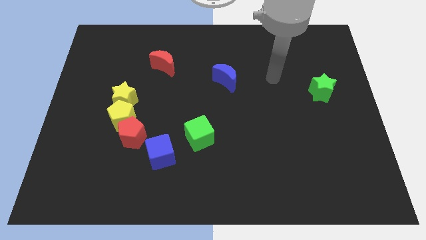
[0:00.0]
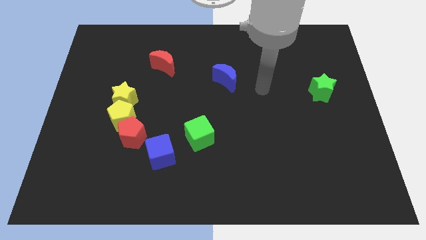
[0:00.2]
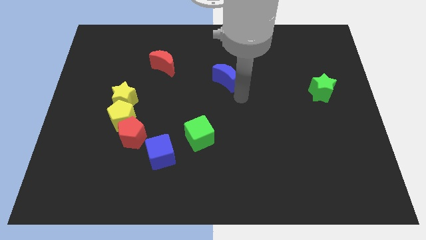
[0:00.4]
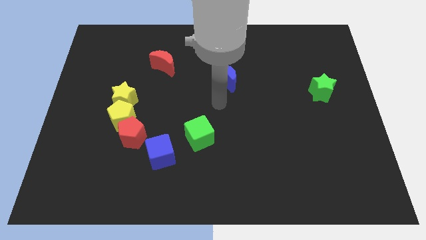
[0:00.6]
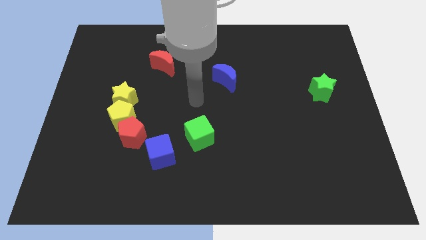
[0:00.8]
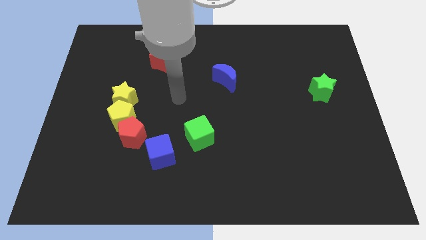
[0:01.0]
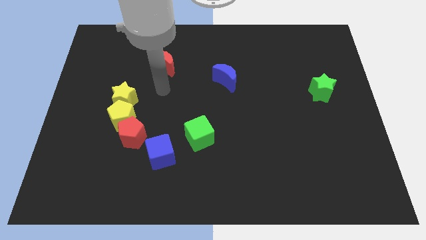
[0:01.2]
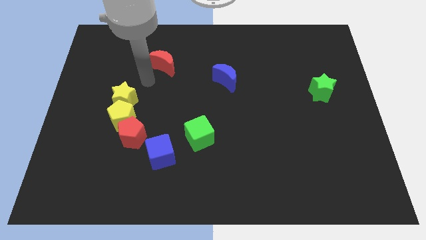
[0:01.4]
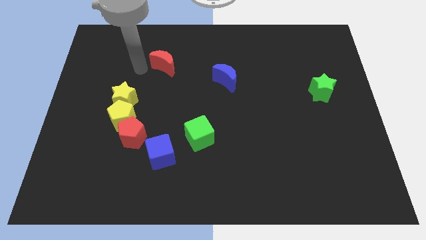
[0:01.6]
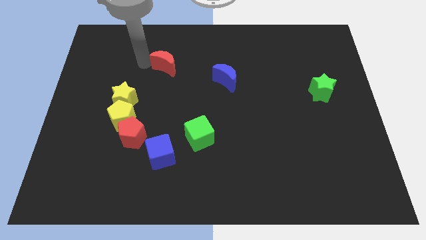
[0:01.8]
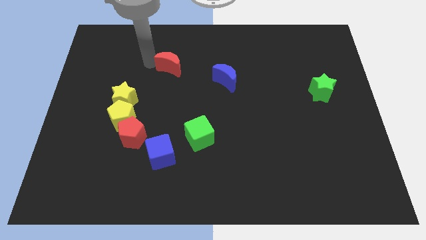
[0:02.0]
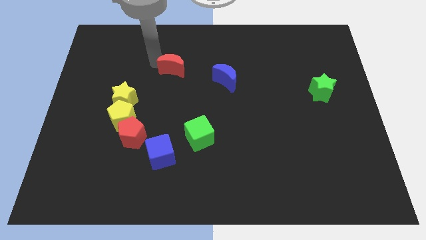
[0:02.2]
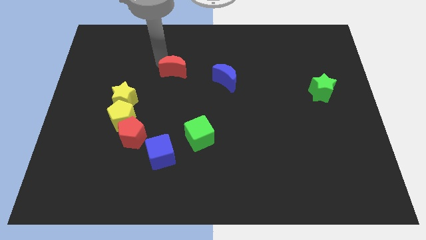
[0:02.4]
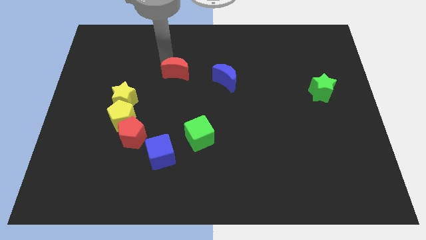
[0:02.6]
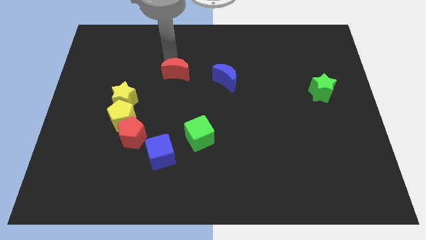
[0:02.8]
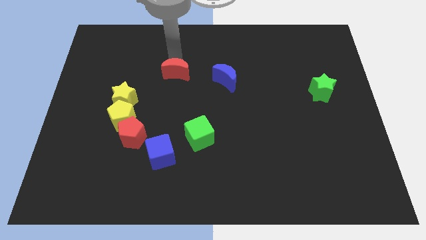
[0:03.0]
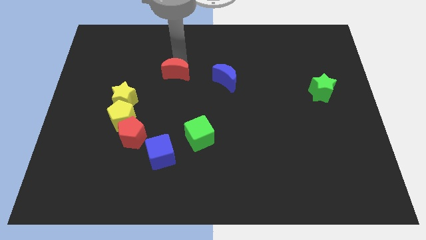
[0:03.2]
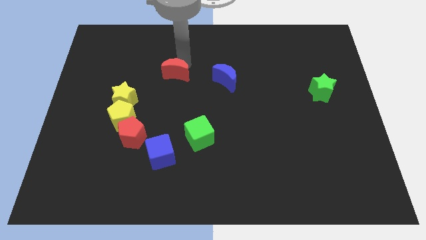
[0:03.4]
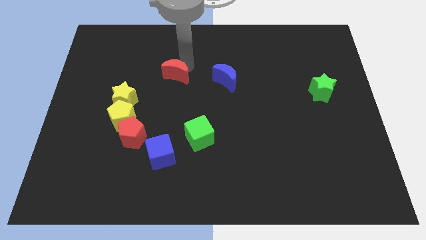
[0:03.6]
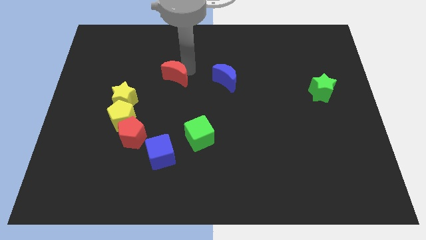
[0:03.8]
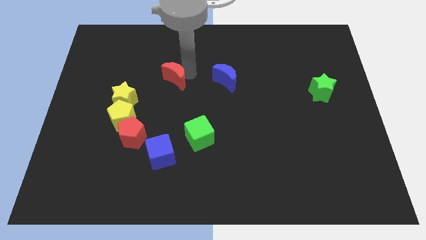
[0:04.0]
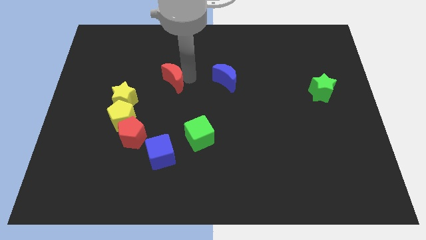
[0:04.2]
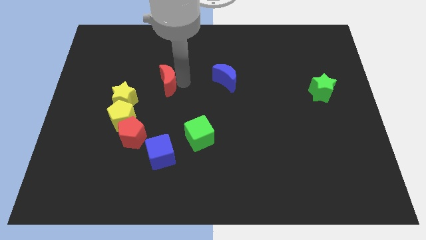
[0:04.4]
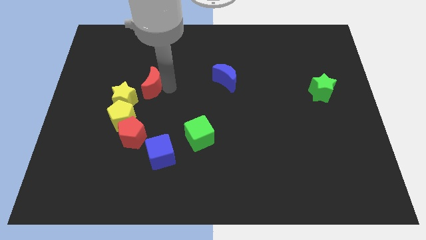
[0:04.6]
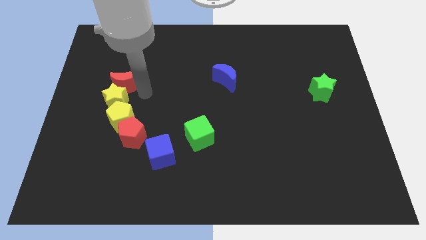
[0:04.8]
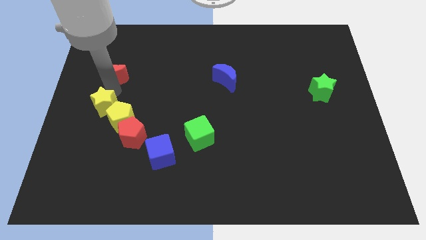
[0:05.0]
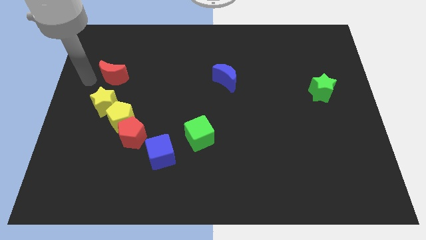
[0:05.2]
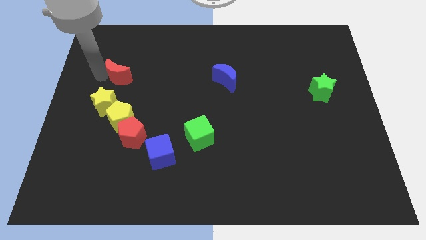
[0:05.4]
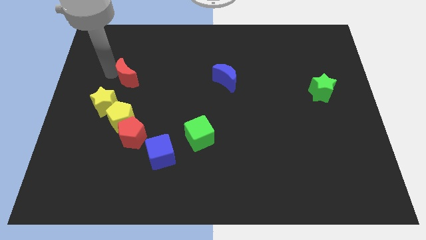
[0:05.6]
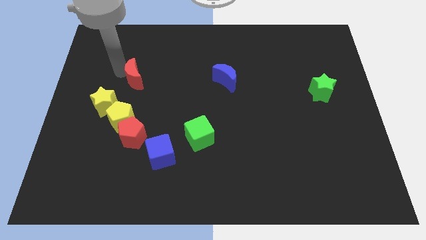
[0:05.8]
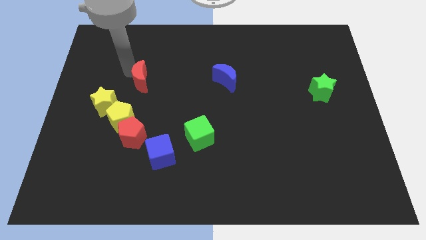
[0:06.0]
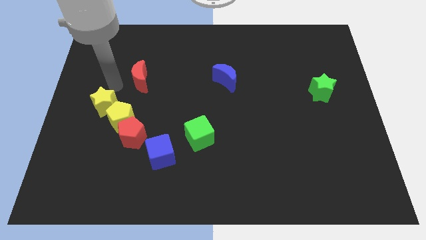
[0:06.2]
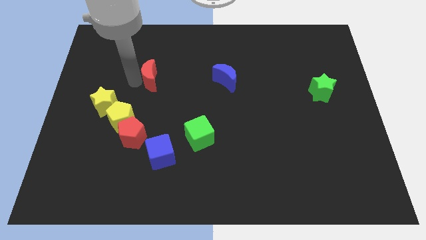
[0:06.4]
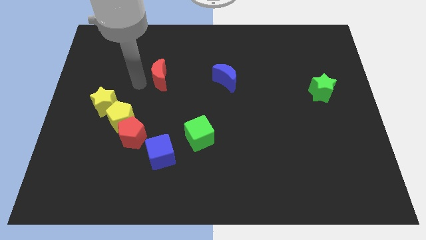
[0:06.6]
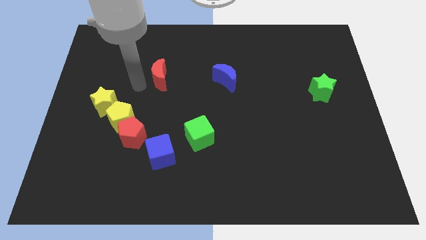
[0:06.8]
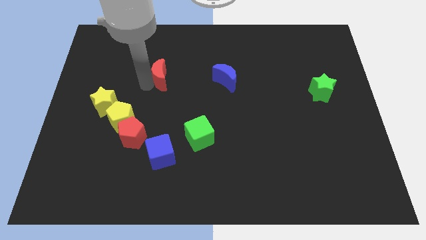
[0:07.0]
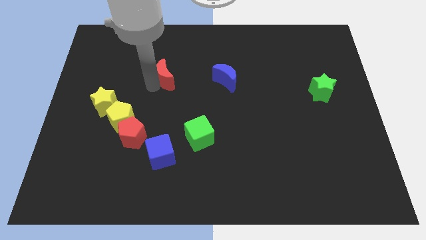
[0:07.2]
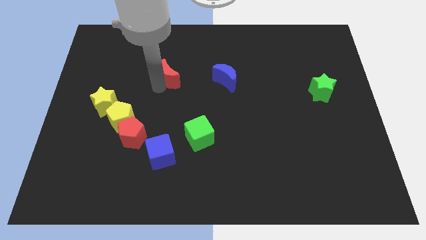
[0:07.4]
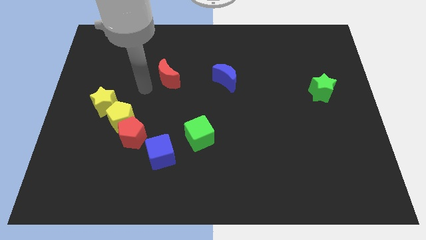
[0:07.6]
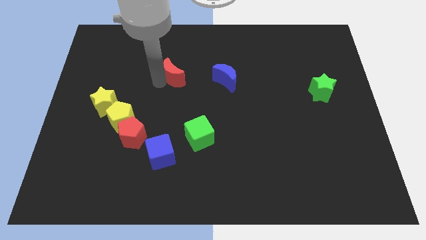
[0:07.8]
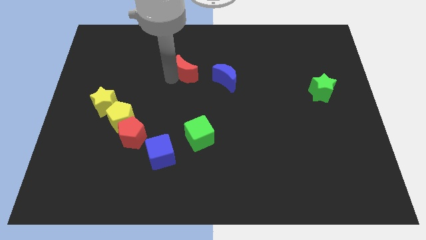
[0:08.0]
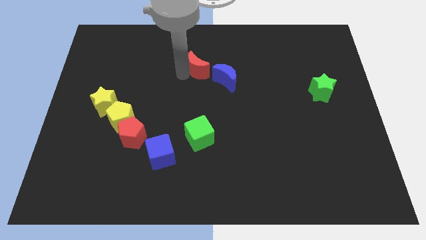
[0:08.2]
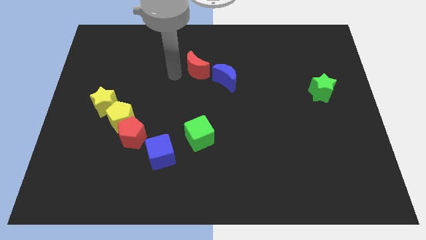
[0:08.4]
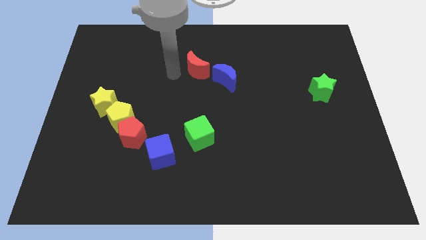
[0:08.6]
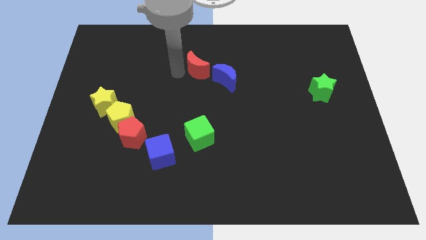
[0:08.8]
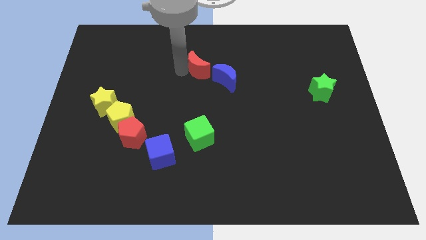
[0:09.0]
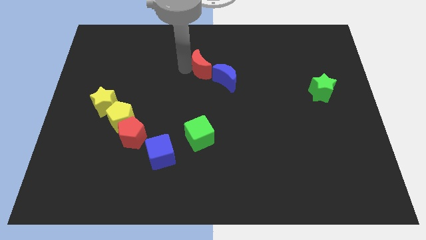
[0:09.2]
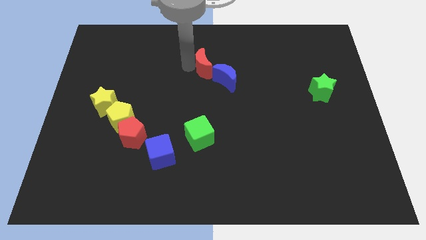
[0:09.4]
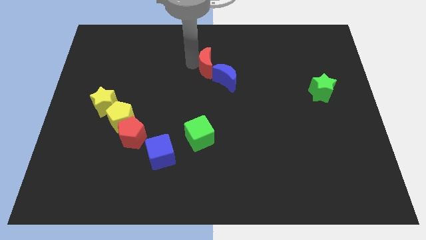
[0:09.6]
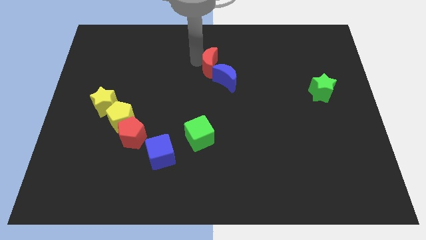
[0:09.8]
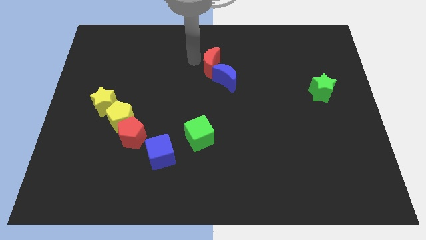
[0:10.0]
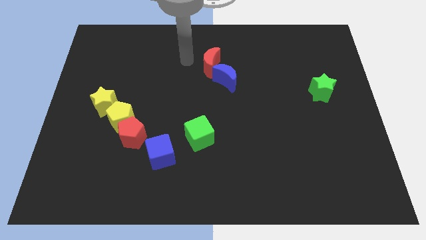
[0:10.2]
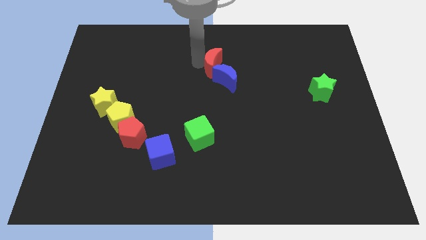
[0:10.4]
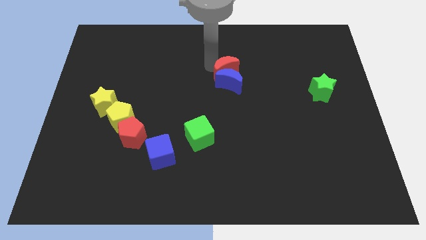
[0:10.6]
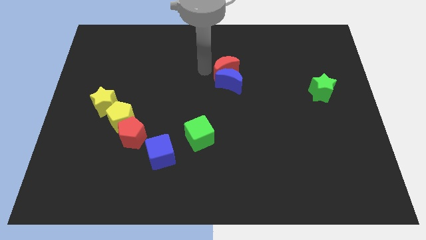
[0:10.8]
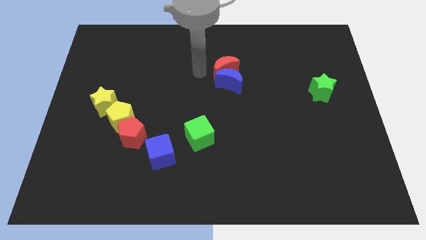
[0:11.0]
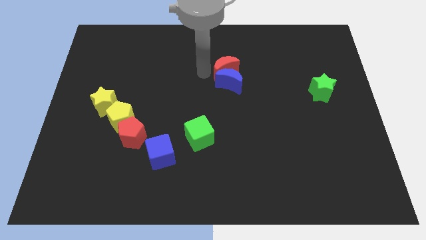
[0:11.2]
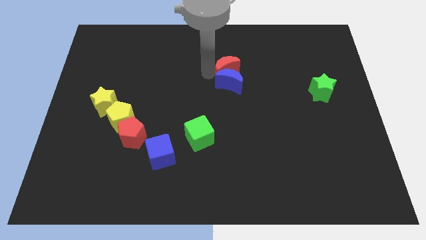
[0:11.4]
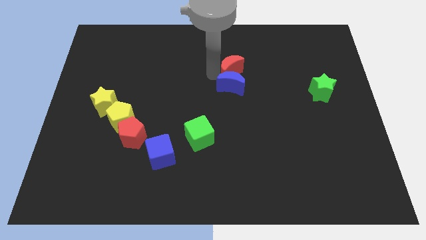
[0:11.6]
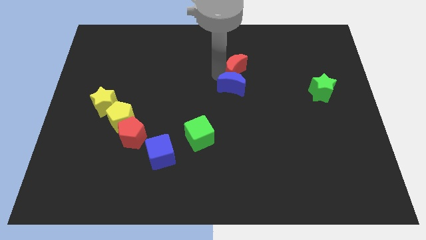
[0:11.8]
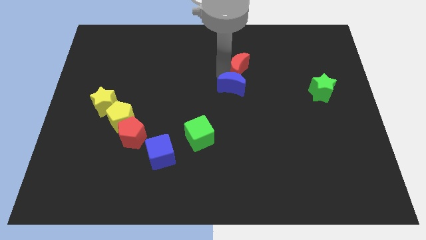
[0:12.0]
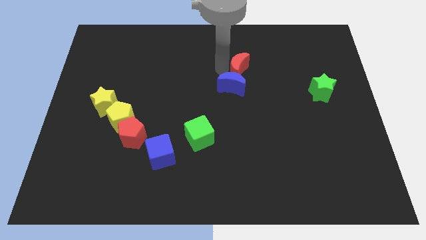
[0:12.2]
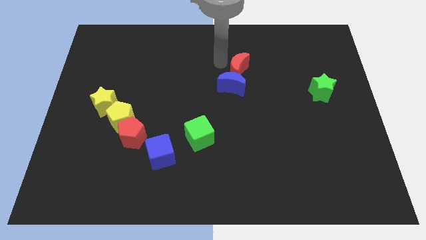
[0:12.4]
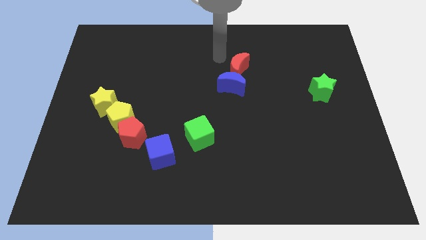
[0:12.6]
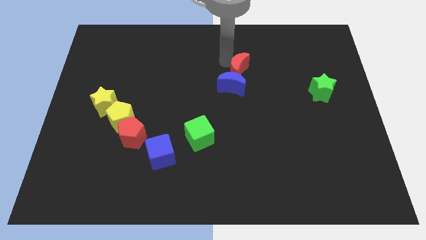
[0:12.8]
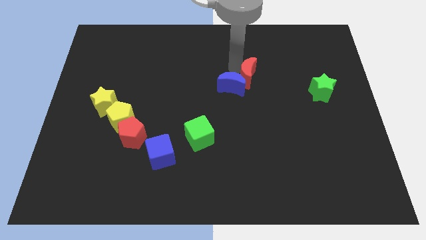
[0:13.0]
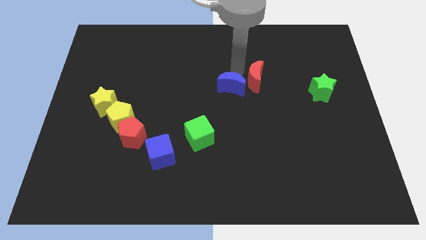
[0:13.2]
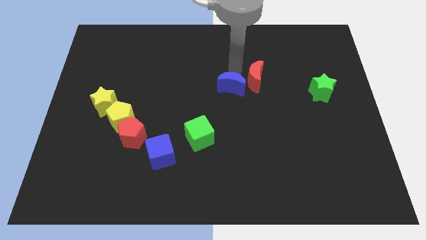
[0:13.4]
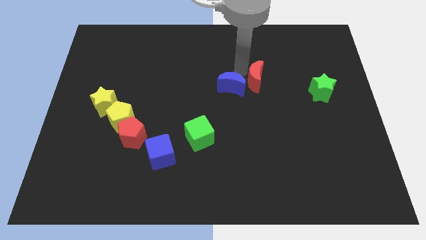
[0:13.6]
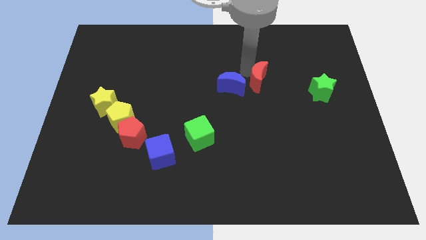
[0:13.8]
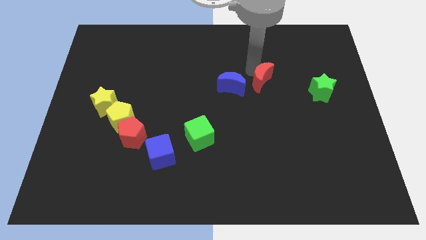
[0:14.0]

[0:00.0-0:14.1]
slide the red moon just left of the green star

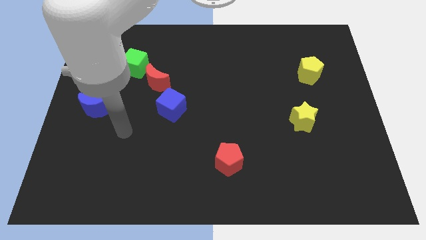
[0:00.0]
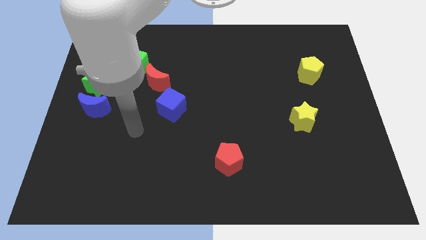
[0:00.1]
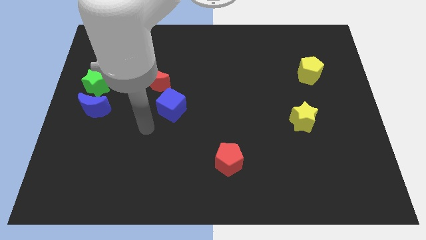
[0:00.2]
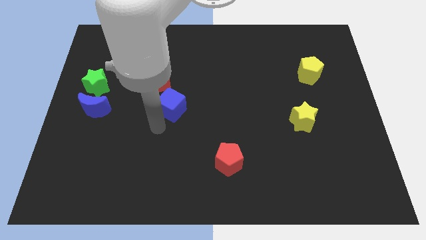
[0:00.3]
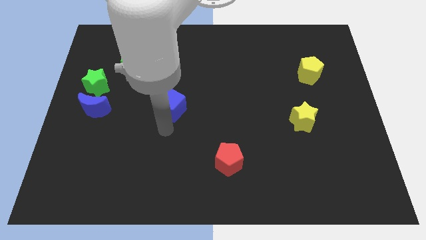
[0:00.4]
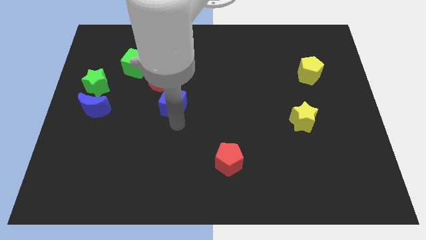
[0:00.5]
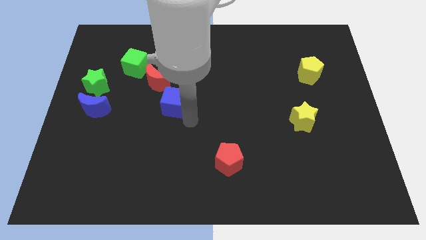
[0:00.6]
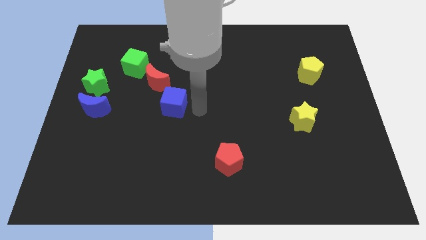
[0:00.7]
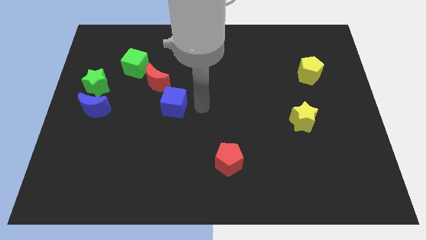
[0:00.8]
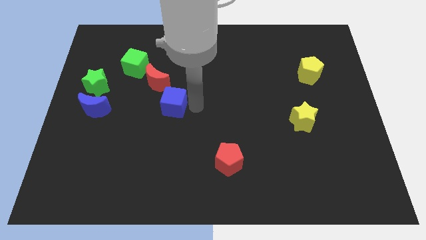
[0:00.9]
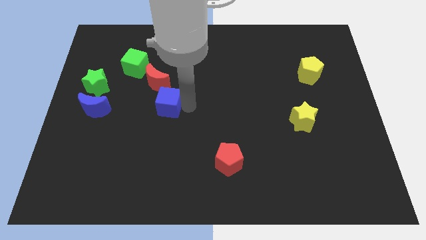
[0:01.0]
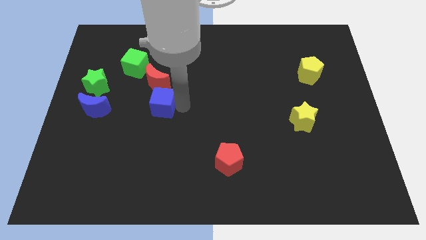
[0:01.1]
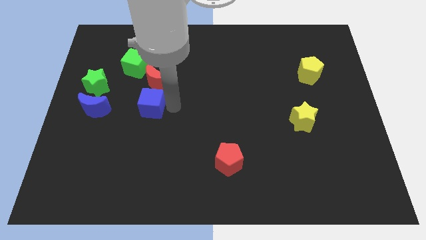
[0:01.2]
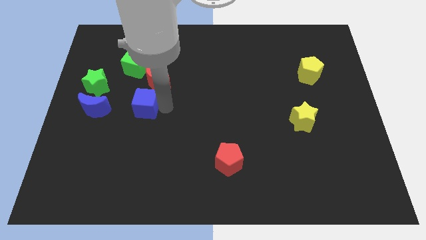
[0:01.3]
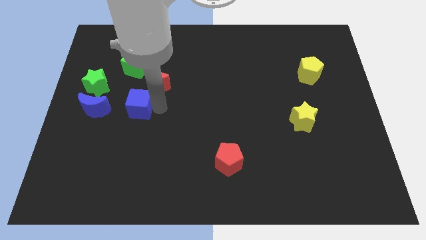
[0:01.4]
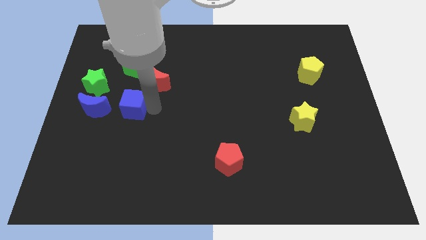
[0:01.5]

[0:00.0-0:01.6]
push the blue cube diagonally down and to the right of the green star
